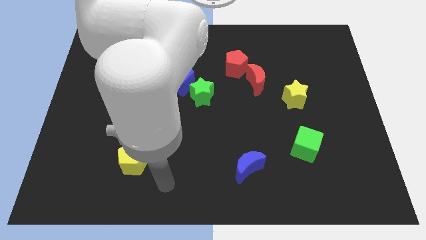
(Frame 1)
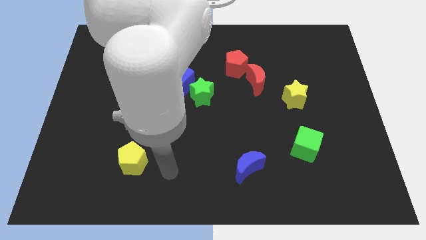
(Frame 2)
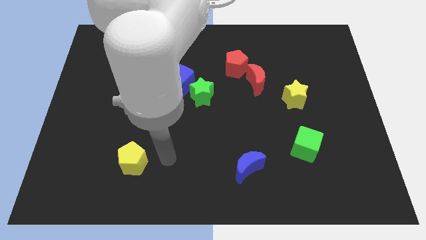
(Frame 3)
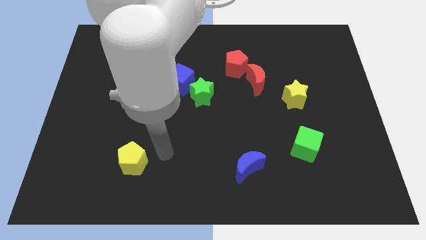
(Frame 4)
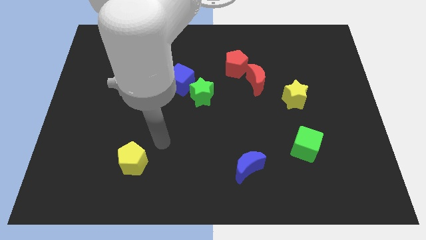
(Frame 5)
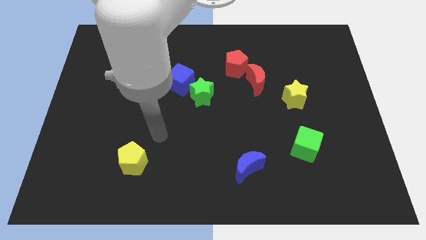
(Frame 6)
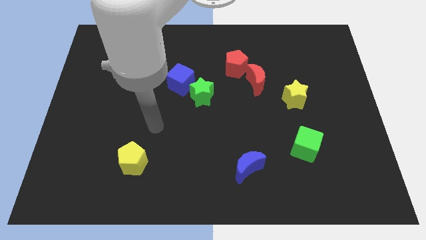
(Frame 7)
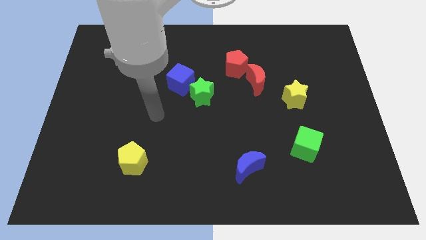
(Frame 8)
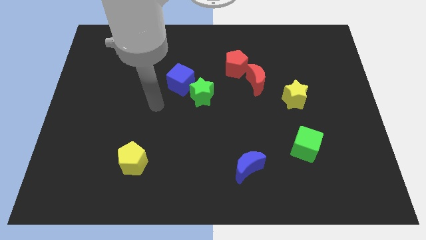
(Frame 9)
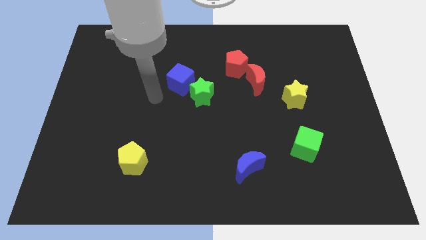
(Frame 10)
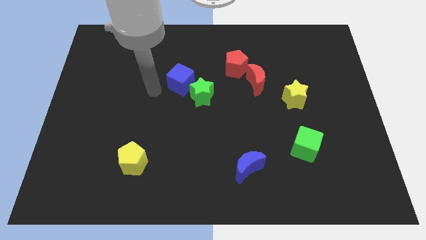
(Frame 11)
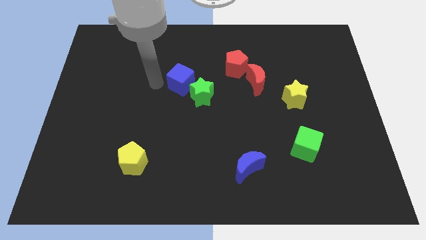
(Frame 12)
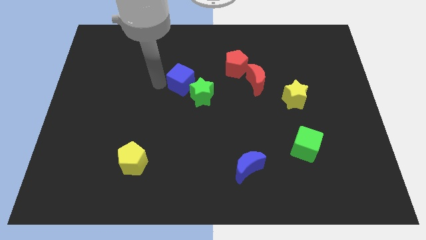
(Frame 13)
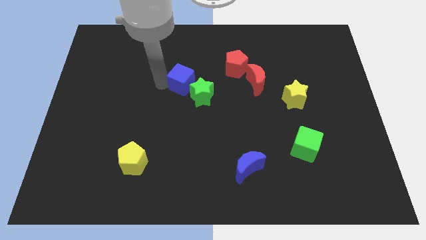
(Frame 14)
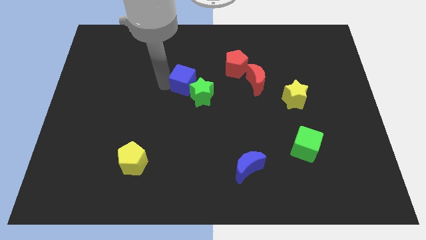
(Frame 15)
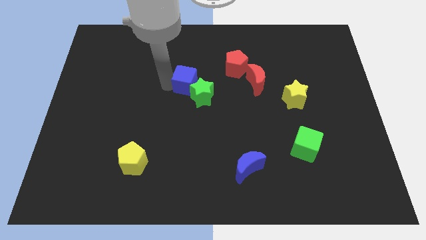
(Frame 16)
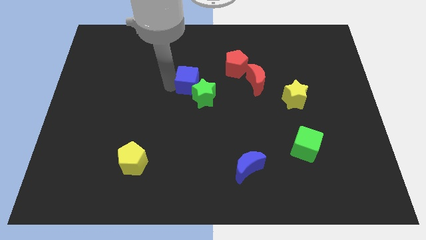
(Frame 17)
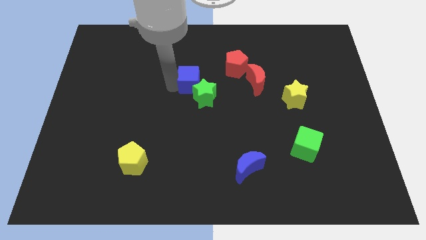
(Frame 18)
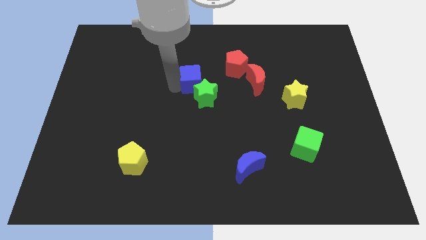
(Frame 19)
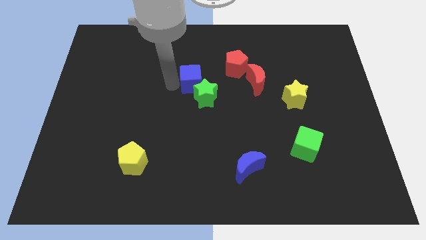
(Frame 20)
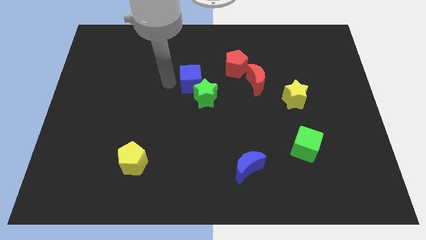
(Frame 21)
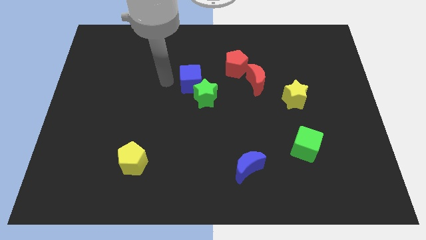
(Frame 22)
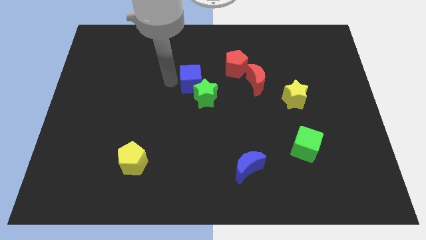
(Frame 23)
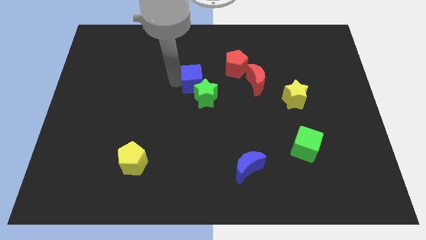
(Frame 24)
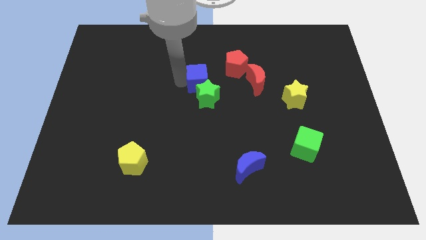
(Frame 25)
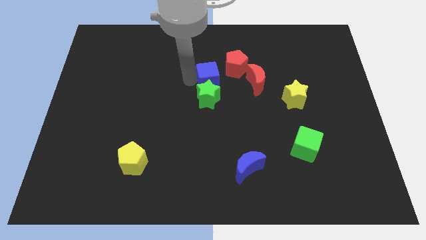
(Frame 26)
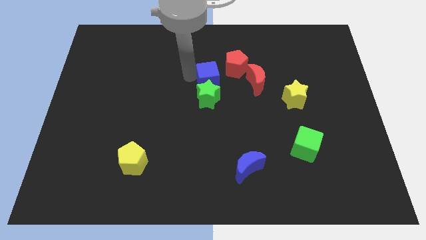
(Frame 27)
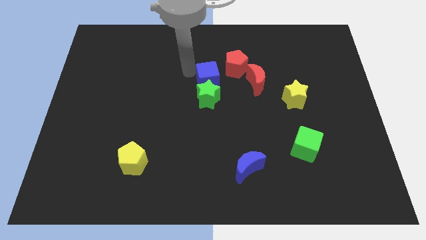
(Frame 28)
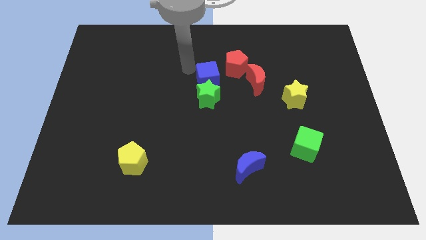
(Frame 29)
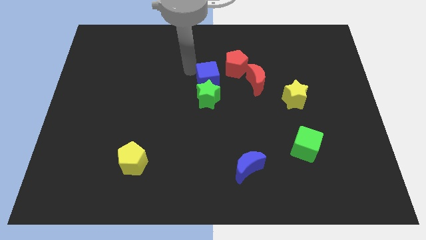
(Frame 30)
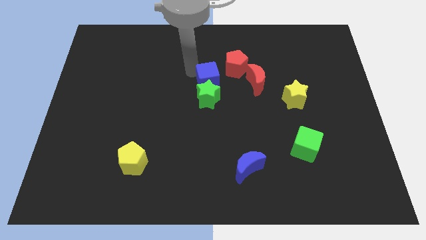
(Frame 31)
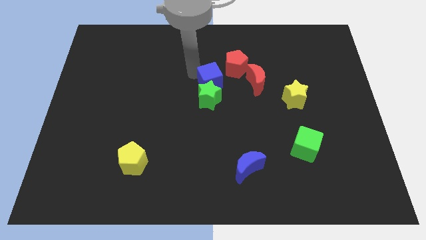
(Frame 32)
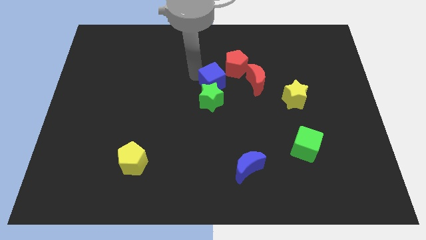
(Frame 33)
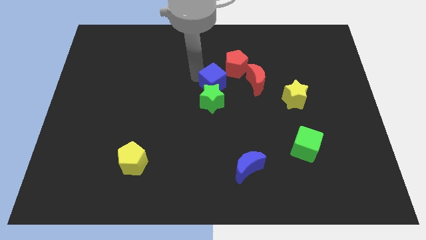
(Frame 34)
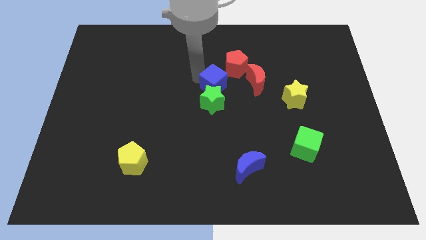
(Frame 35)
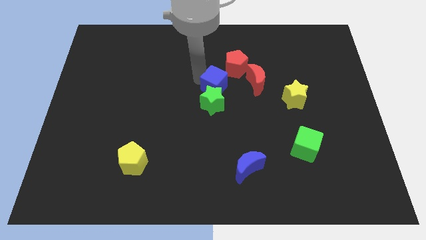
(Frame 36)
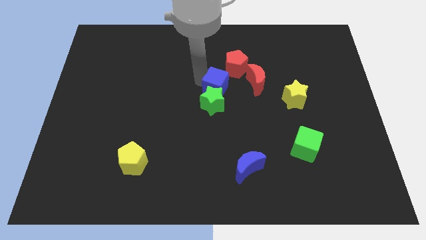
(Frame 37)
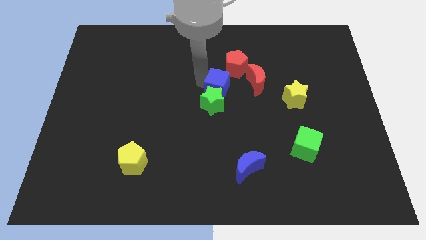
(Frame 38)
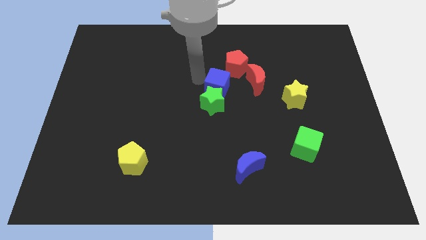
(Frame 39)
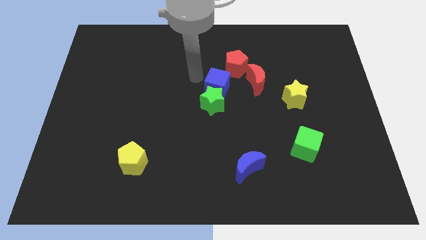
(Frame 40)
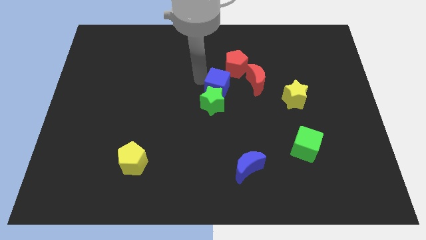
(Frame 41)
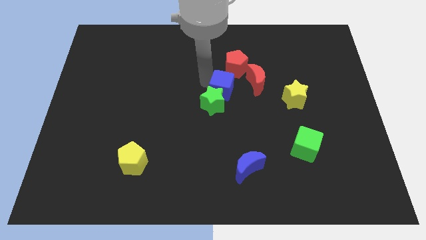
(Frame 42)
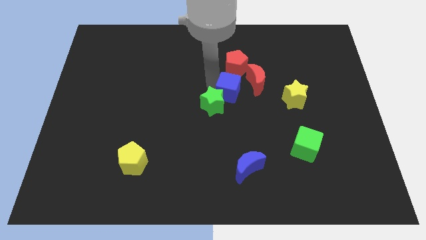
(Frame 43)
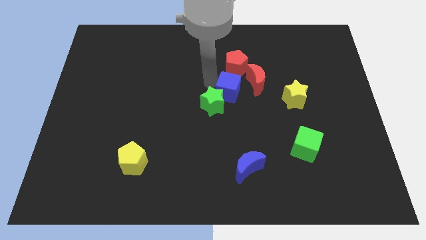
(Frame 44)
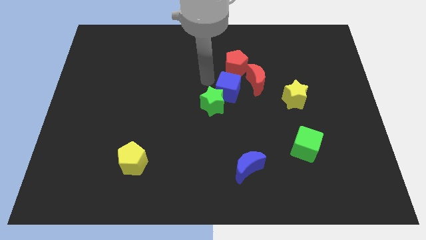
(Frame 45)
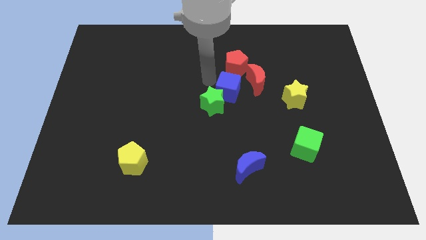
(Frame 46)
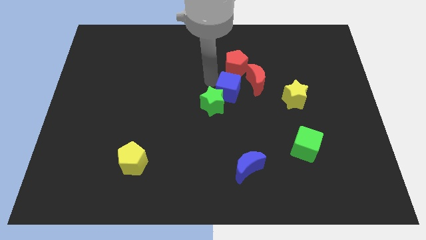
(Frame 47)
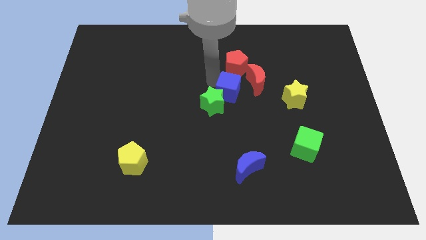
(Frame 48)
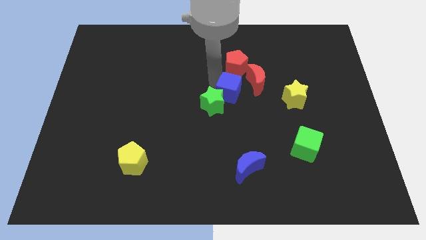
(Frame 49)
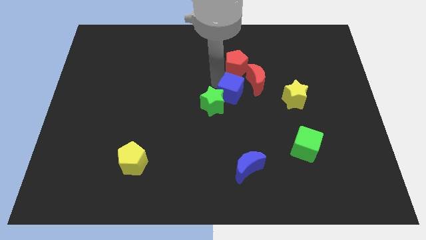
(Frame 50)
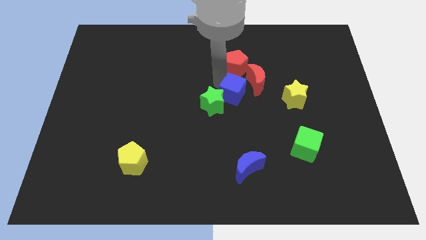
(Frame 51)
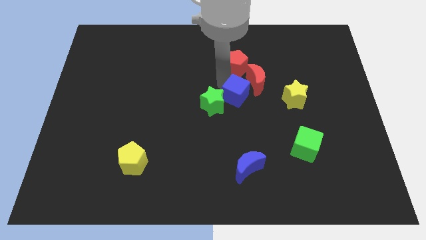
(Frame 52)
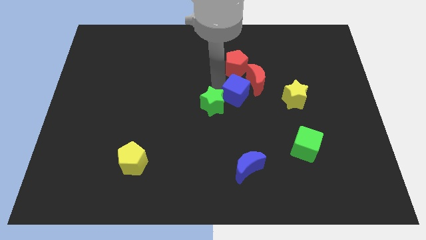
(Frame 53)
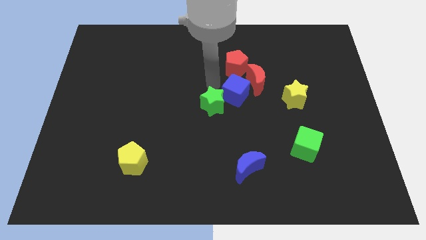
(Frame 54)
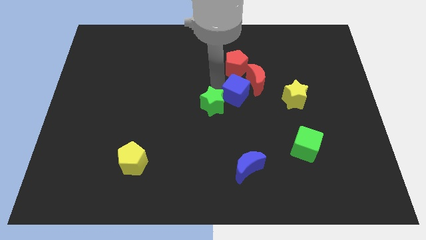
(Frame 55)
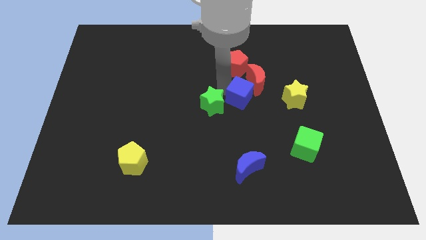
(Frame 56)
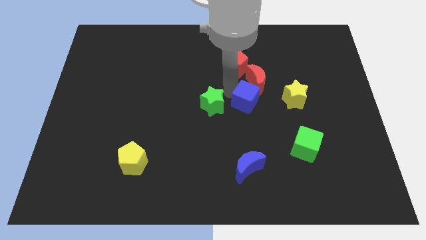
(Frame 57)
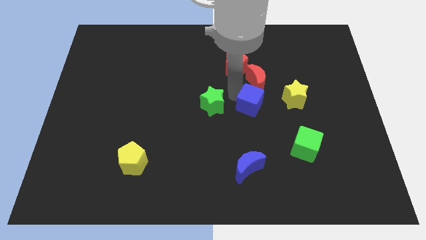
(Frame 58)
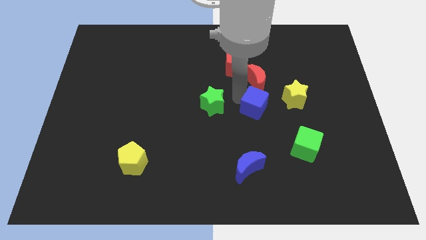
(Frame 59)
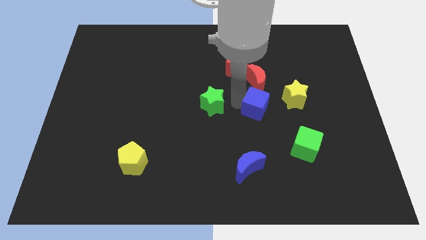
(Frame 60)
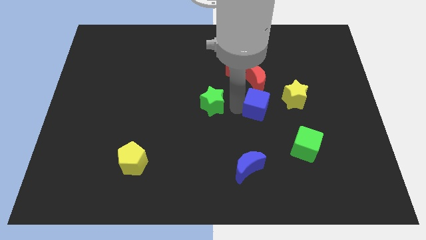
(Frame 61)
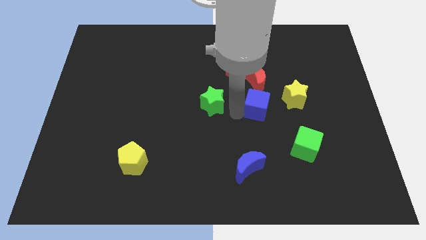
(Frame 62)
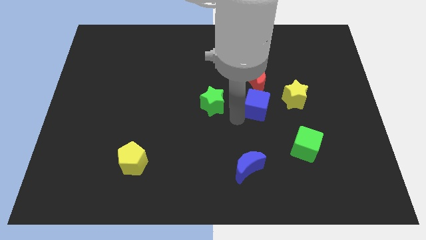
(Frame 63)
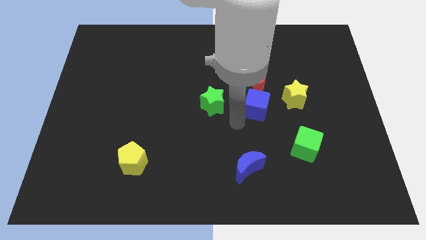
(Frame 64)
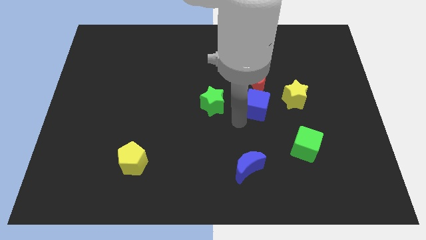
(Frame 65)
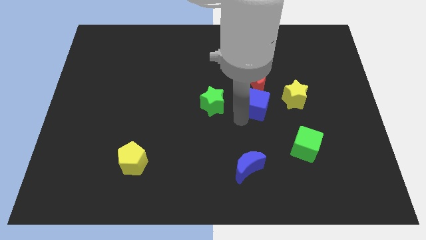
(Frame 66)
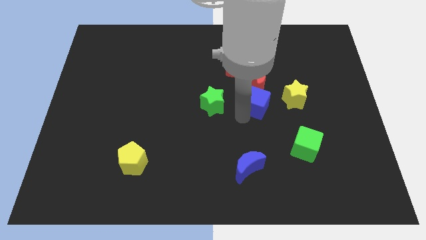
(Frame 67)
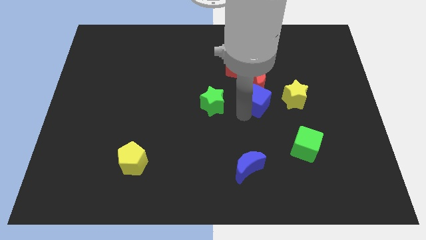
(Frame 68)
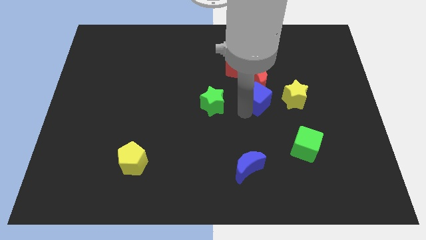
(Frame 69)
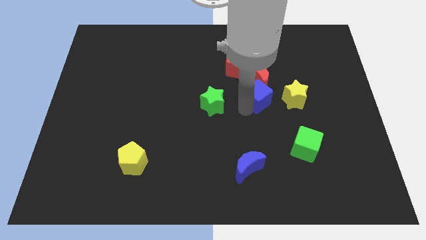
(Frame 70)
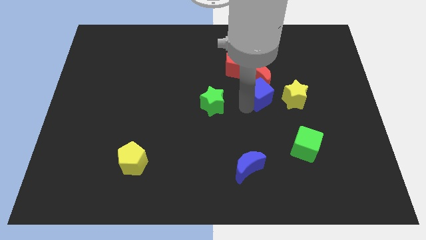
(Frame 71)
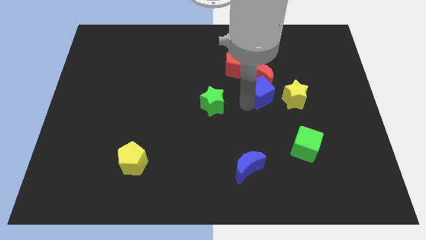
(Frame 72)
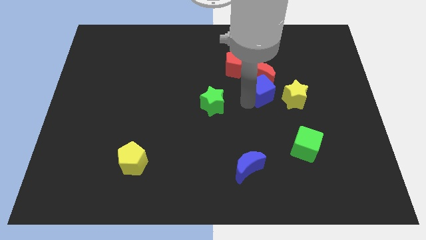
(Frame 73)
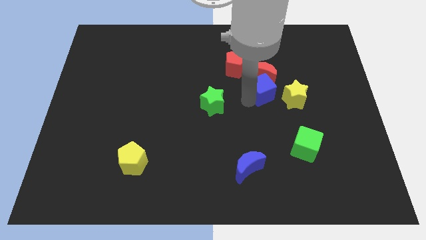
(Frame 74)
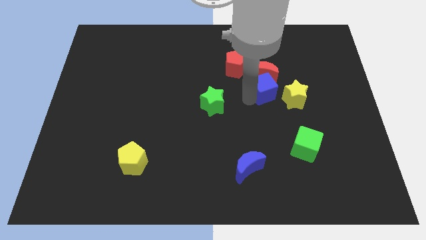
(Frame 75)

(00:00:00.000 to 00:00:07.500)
slide the blue cube right

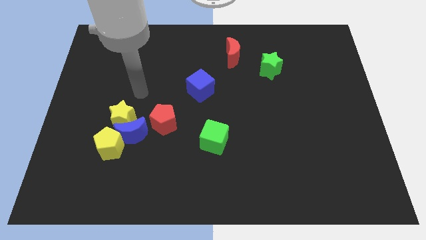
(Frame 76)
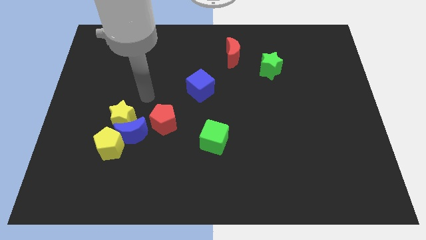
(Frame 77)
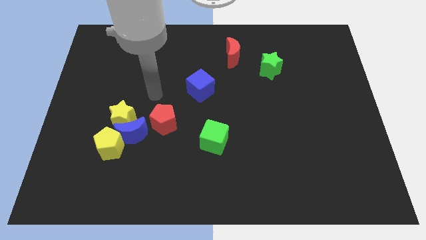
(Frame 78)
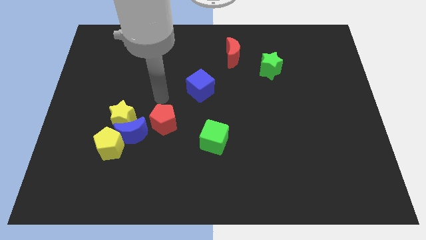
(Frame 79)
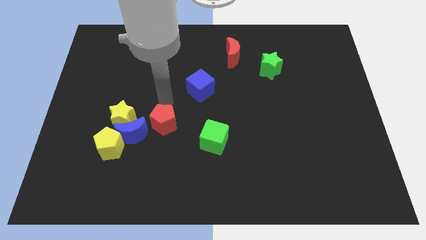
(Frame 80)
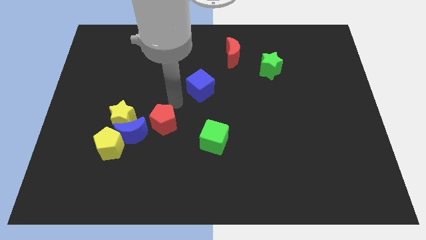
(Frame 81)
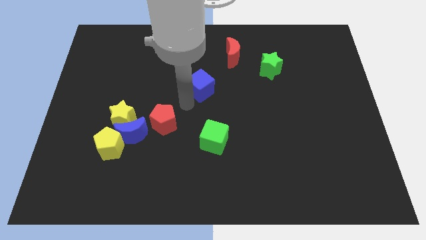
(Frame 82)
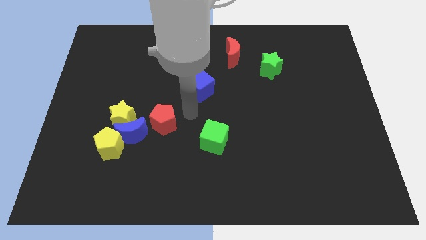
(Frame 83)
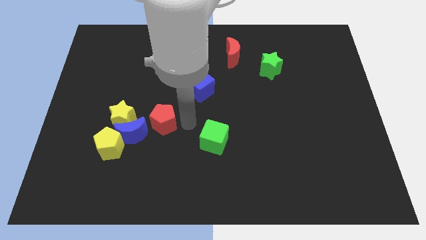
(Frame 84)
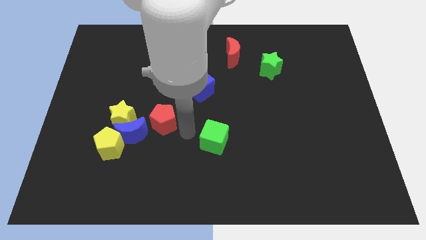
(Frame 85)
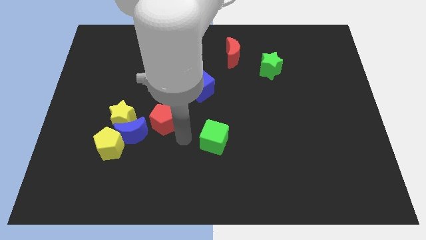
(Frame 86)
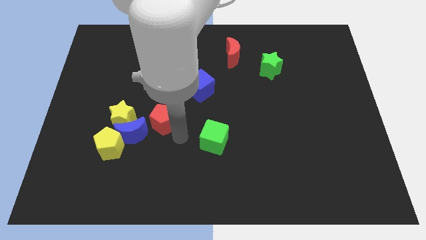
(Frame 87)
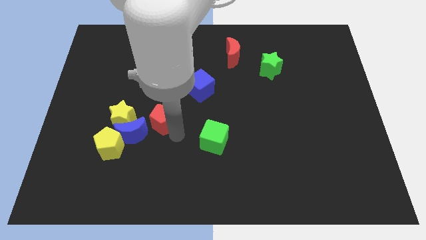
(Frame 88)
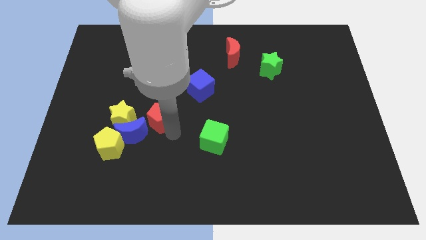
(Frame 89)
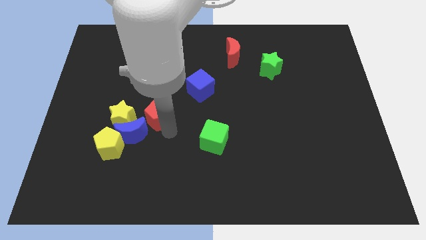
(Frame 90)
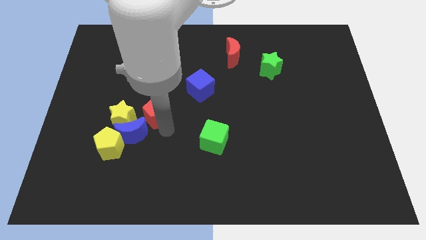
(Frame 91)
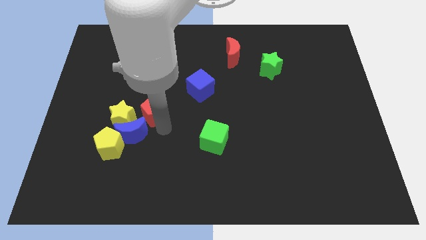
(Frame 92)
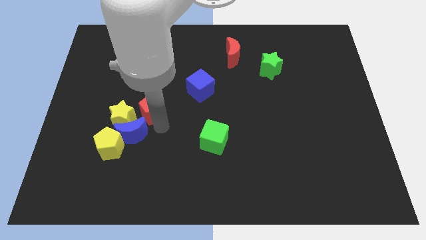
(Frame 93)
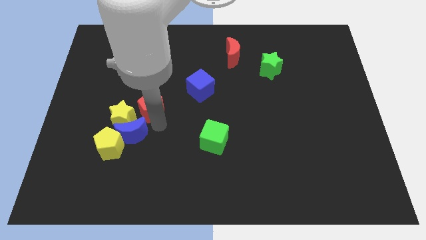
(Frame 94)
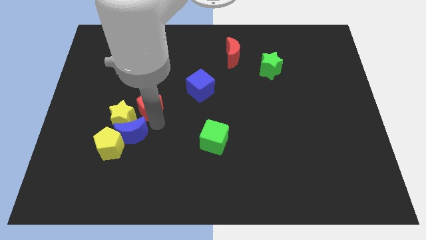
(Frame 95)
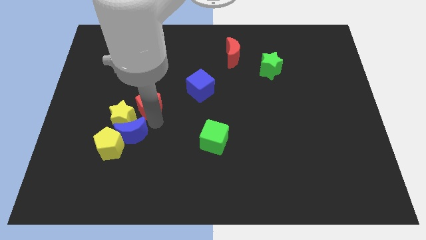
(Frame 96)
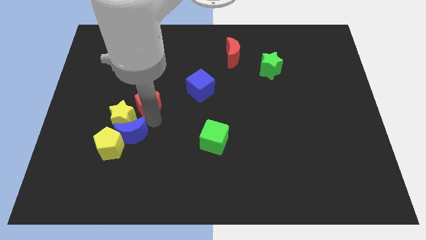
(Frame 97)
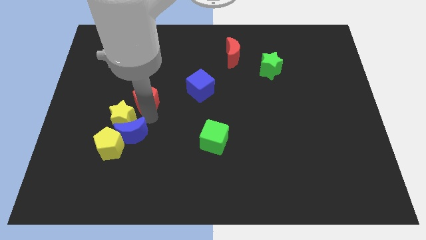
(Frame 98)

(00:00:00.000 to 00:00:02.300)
slightly slide the red pentagon up and left diagonally
